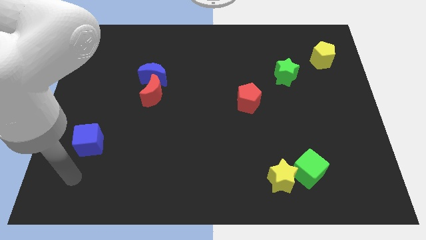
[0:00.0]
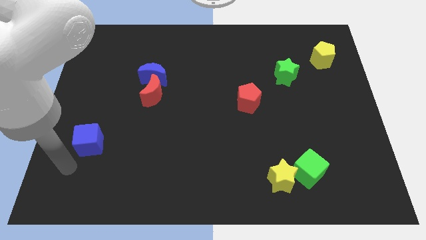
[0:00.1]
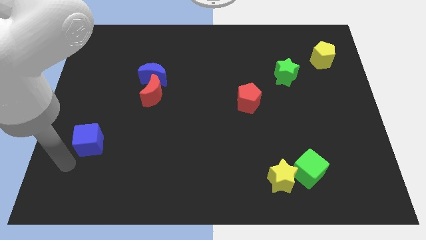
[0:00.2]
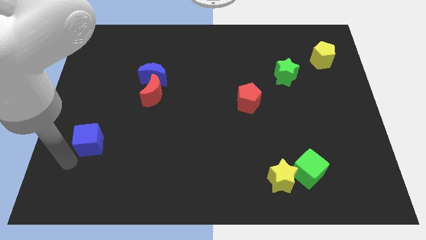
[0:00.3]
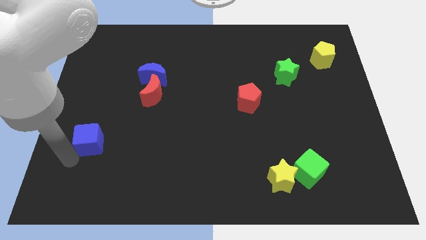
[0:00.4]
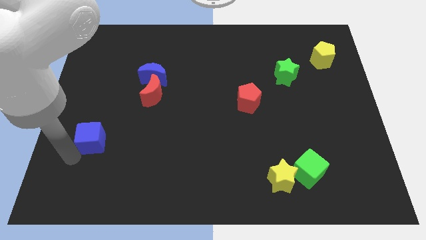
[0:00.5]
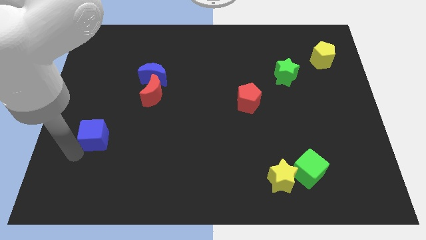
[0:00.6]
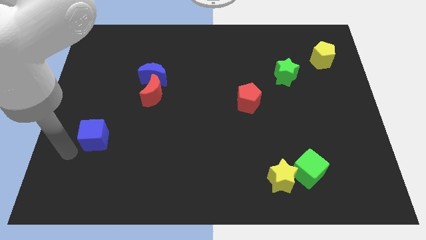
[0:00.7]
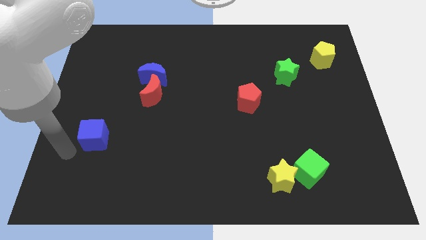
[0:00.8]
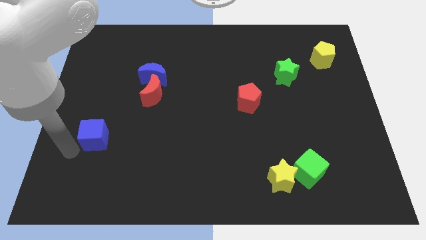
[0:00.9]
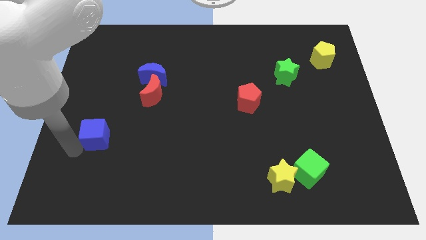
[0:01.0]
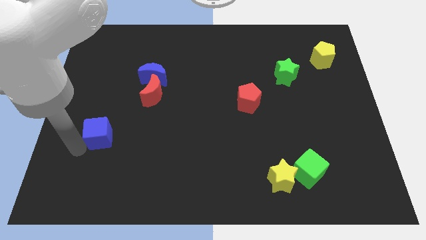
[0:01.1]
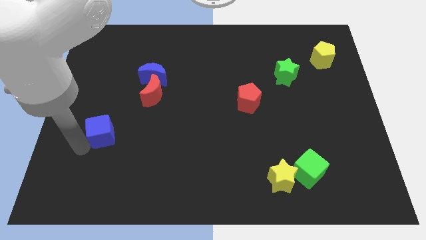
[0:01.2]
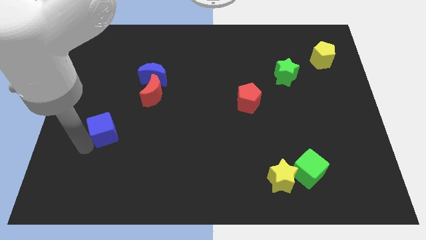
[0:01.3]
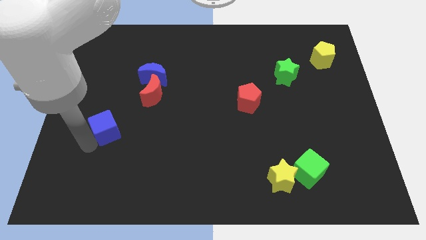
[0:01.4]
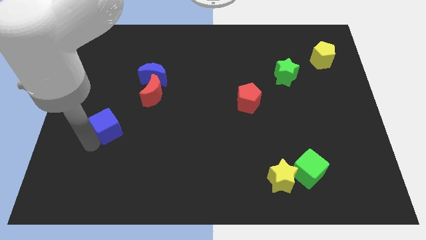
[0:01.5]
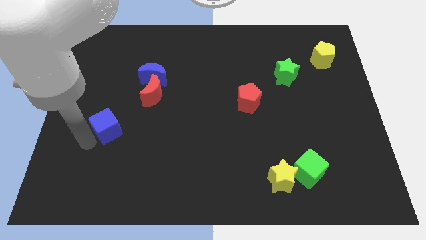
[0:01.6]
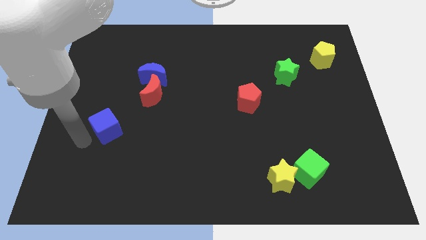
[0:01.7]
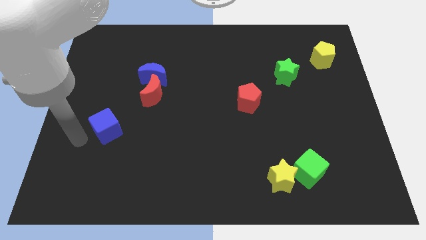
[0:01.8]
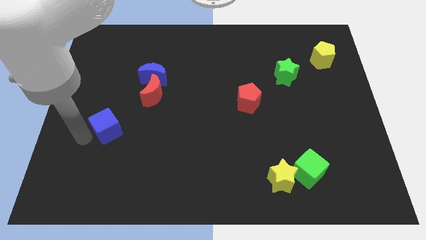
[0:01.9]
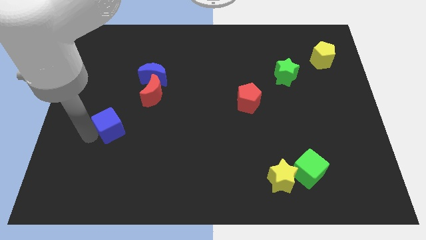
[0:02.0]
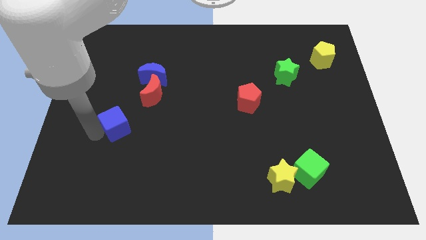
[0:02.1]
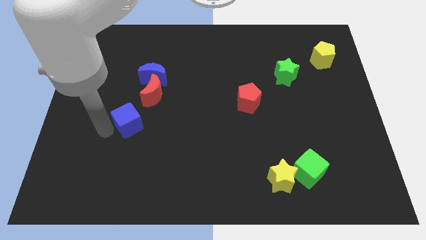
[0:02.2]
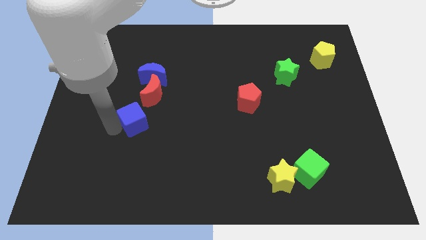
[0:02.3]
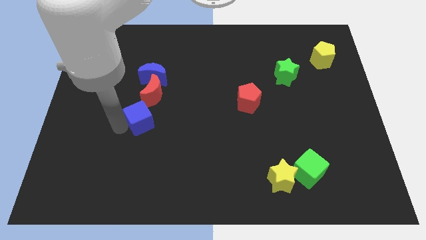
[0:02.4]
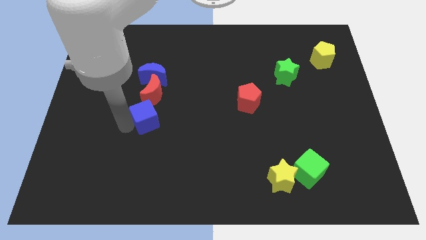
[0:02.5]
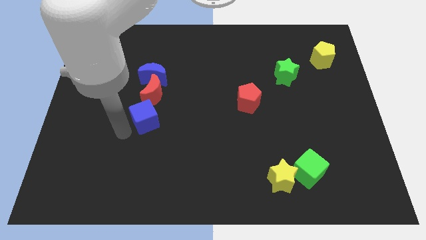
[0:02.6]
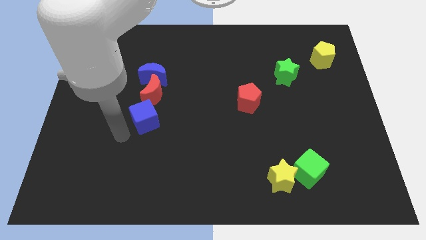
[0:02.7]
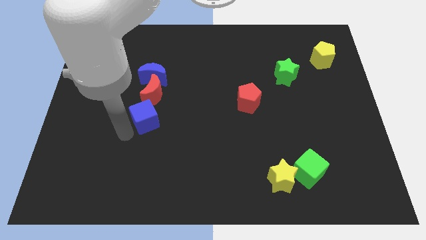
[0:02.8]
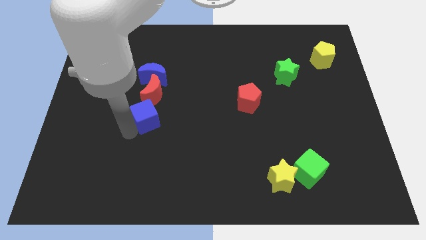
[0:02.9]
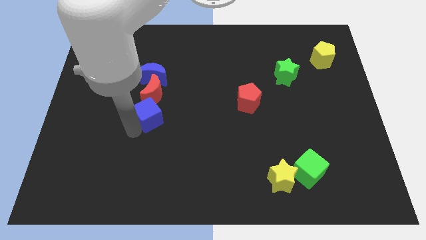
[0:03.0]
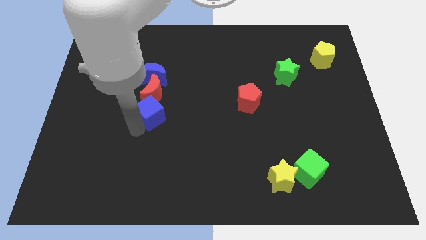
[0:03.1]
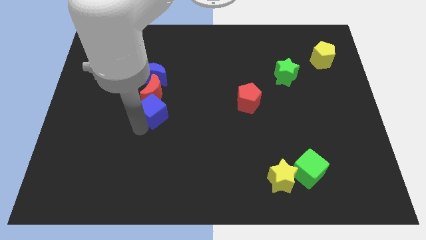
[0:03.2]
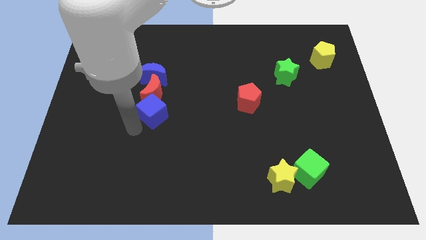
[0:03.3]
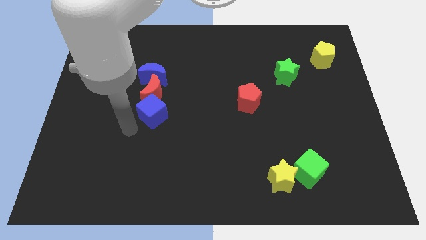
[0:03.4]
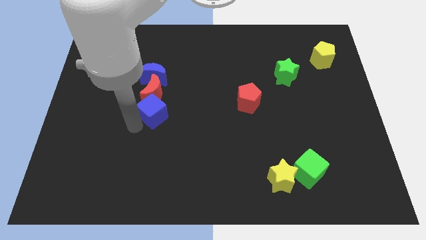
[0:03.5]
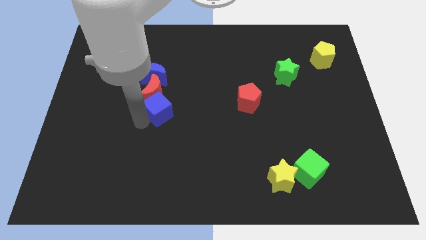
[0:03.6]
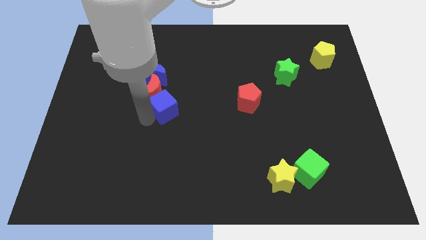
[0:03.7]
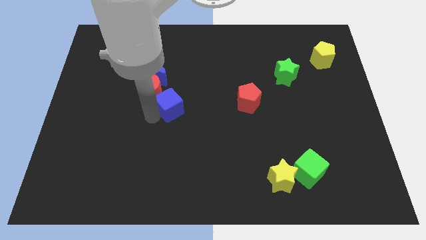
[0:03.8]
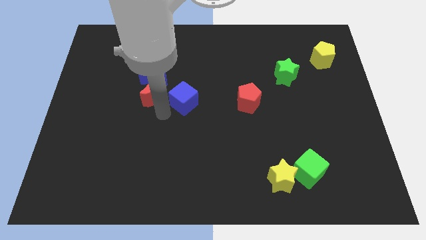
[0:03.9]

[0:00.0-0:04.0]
move the blue cube upwards and then right

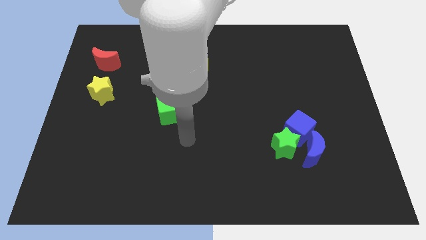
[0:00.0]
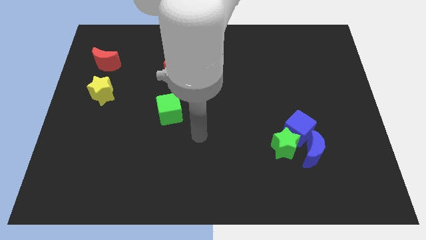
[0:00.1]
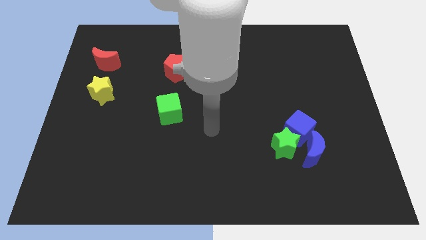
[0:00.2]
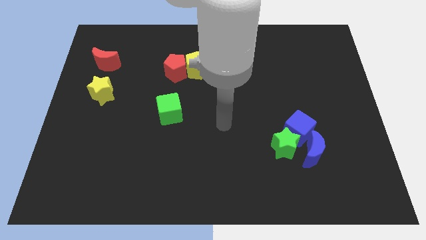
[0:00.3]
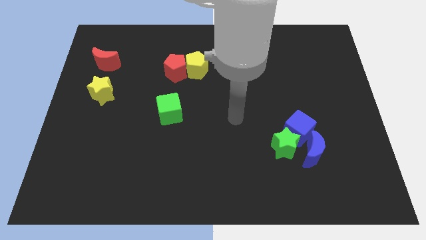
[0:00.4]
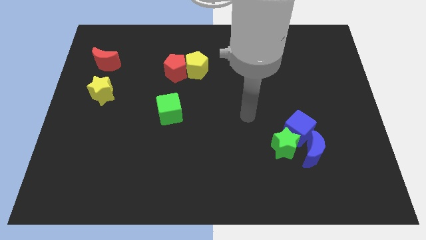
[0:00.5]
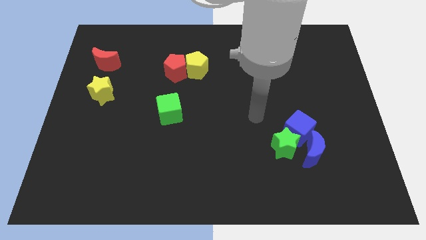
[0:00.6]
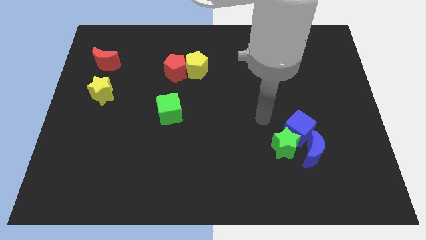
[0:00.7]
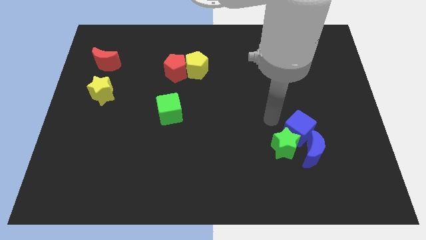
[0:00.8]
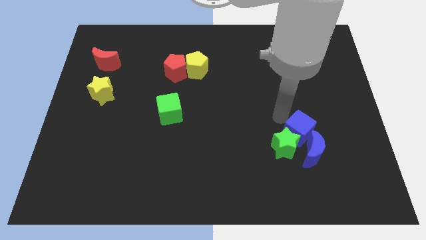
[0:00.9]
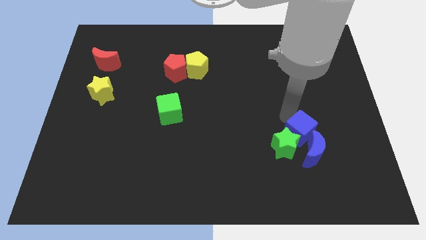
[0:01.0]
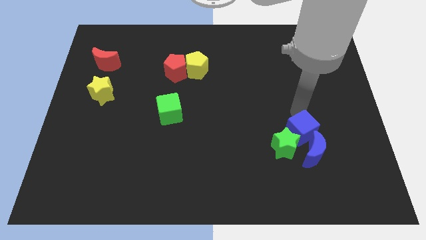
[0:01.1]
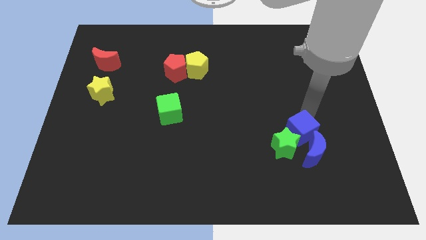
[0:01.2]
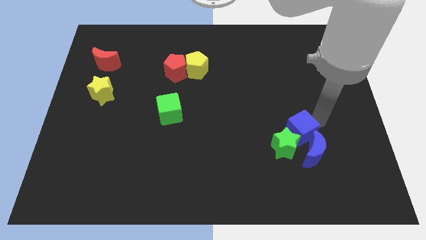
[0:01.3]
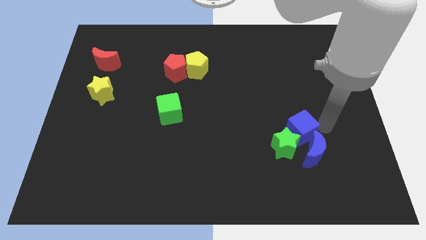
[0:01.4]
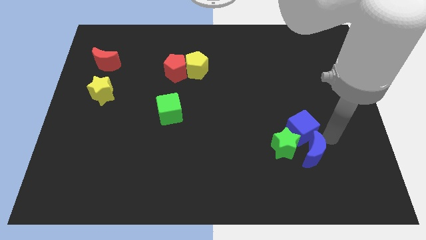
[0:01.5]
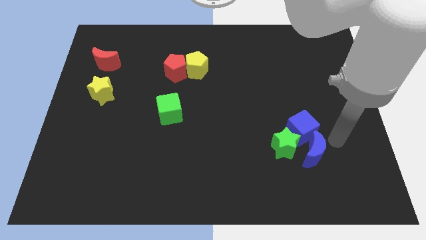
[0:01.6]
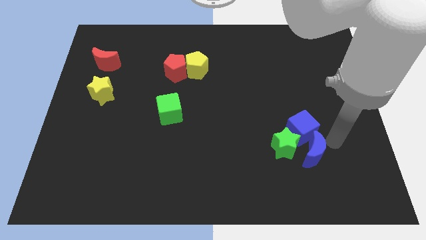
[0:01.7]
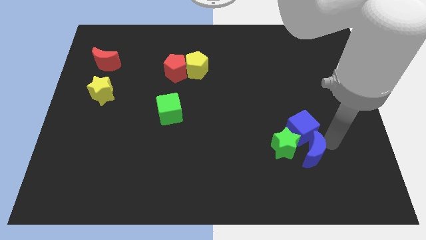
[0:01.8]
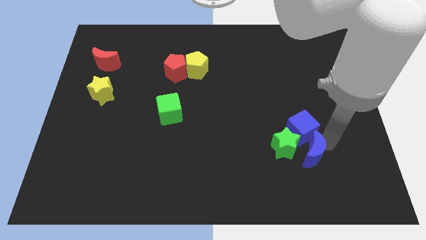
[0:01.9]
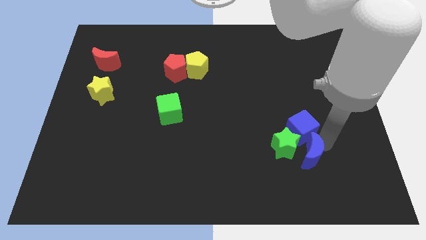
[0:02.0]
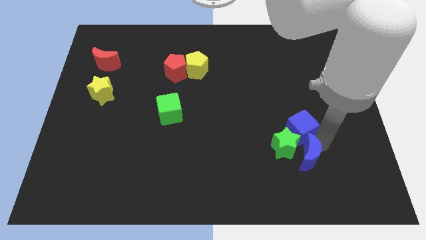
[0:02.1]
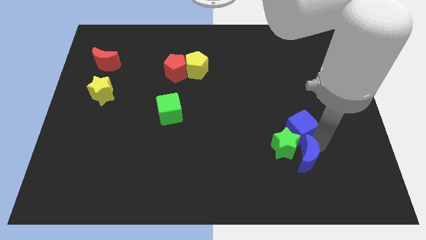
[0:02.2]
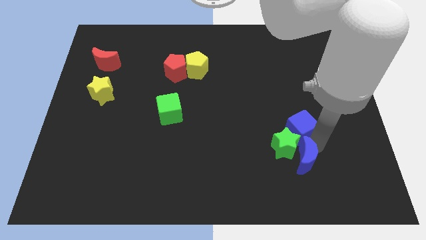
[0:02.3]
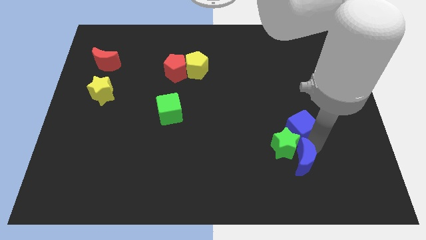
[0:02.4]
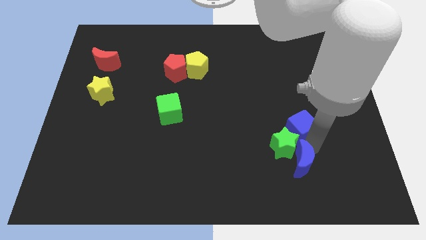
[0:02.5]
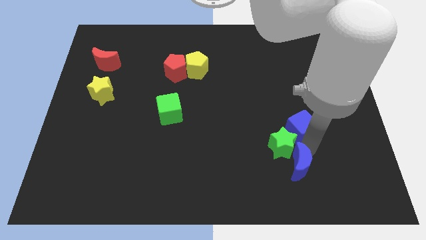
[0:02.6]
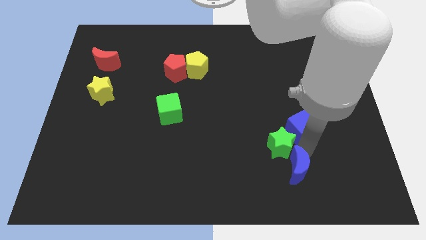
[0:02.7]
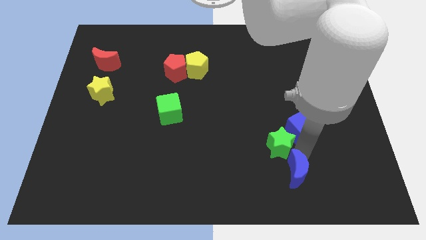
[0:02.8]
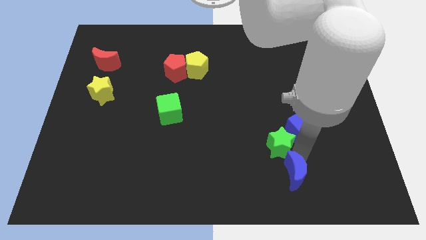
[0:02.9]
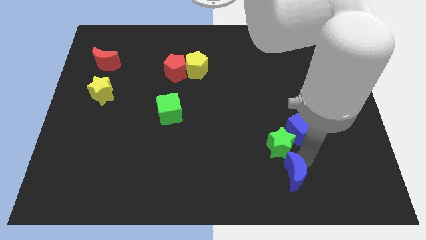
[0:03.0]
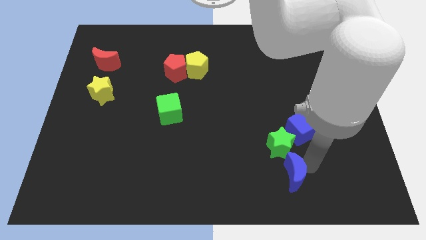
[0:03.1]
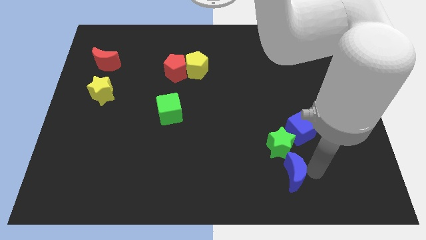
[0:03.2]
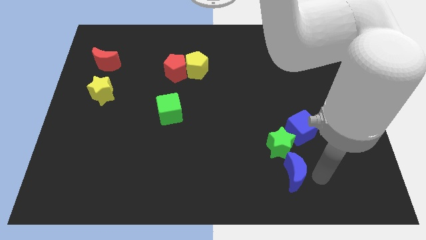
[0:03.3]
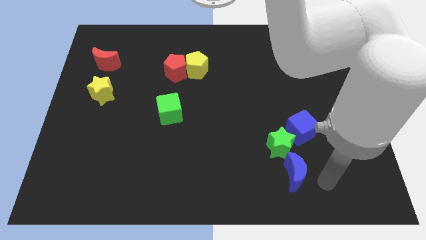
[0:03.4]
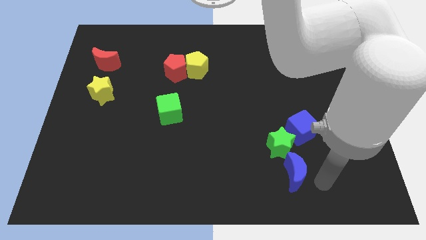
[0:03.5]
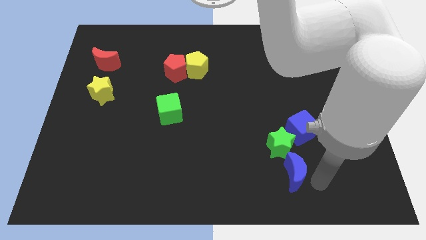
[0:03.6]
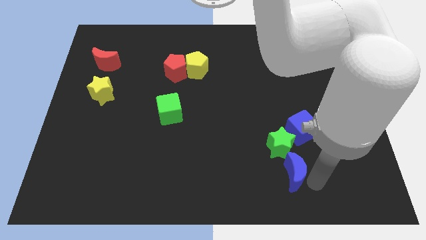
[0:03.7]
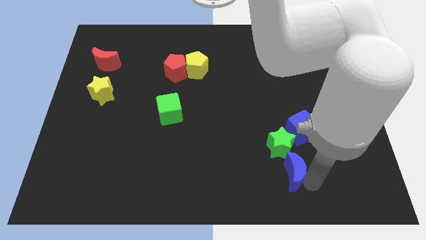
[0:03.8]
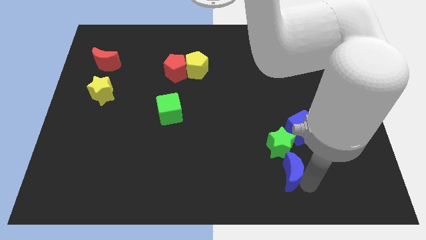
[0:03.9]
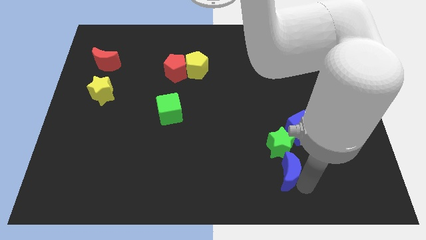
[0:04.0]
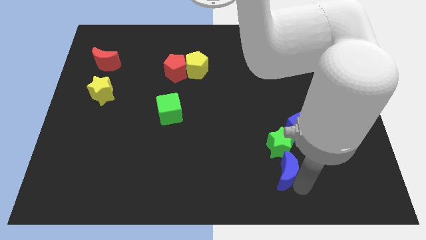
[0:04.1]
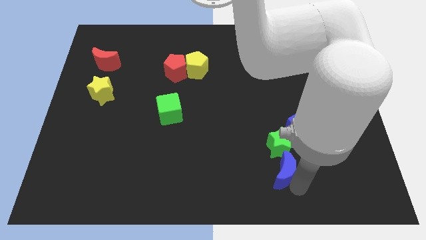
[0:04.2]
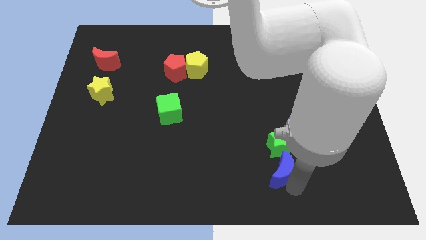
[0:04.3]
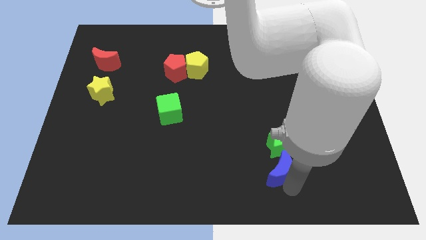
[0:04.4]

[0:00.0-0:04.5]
slightly move the blue moon to the left
